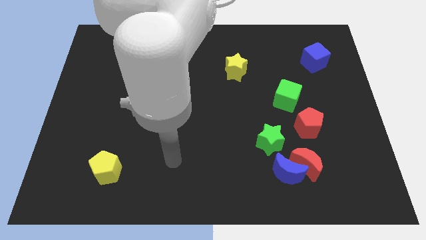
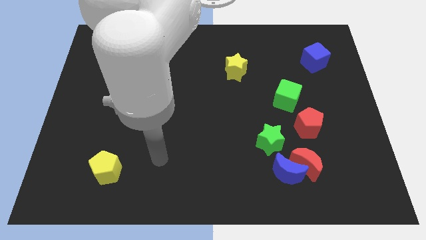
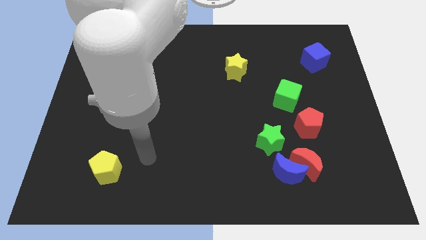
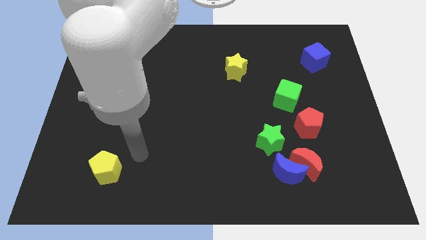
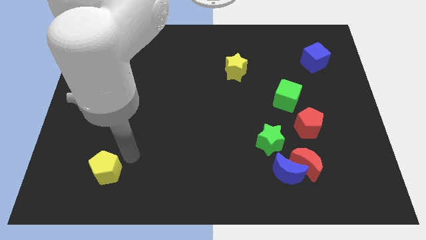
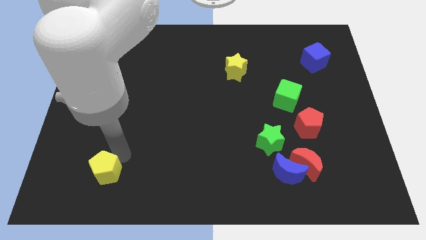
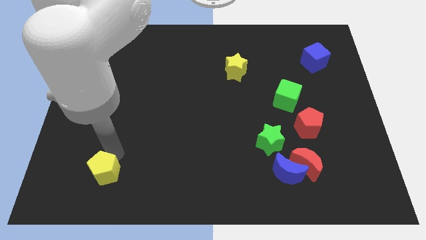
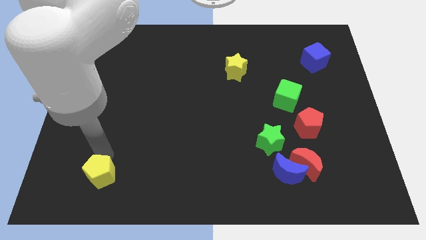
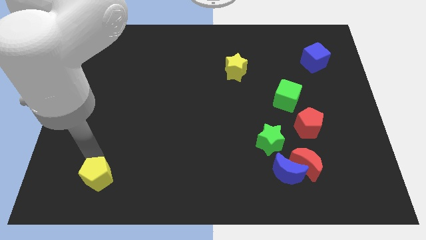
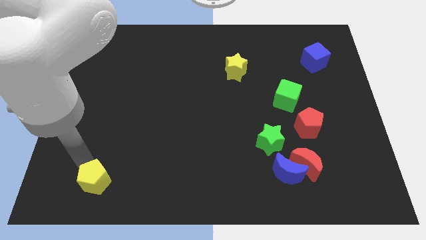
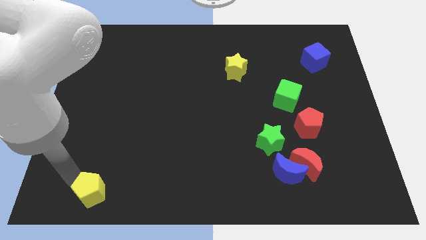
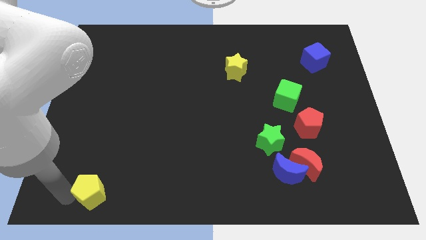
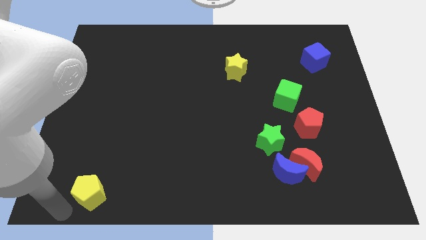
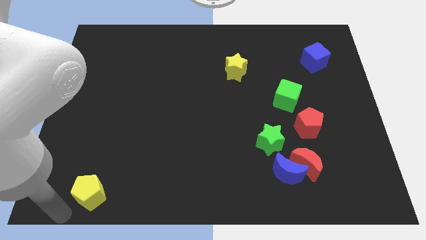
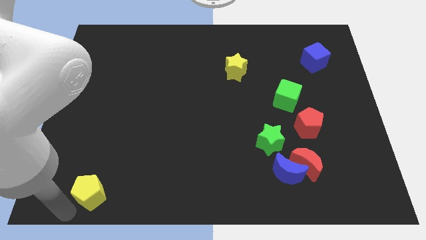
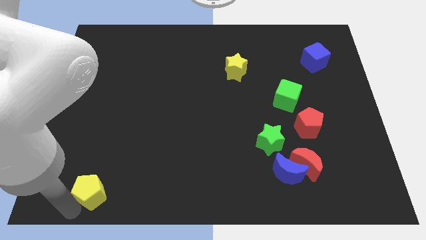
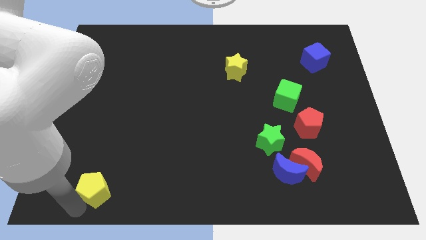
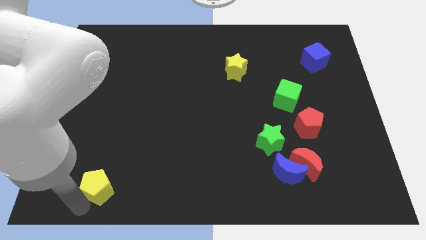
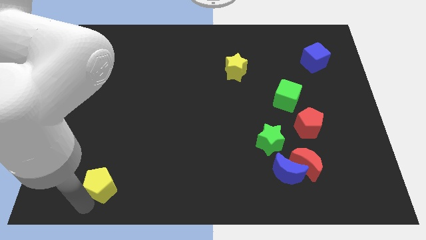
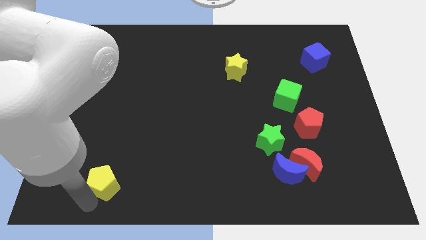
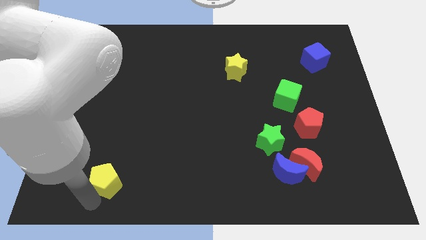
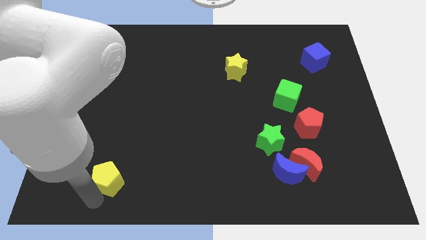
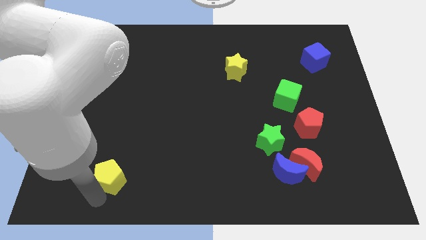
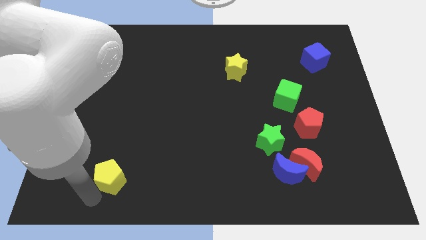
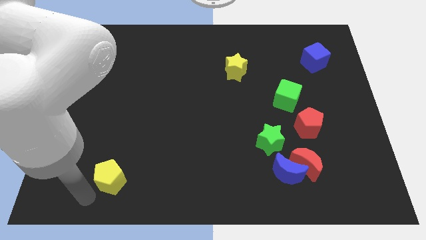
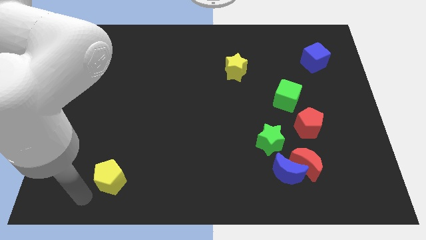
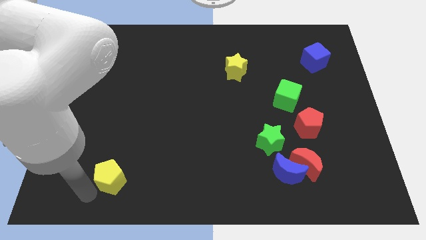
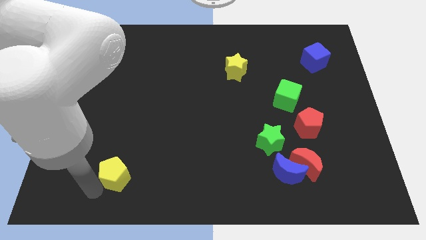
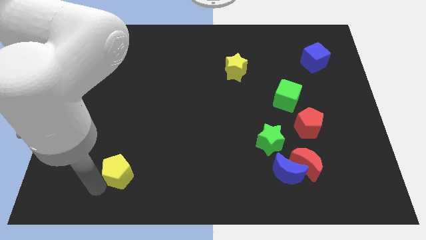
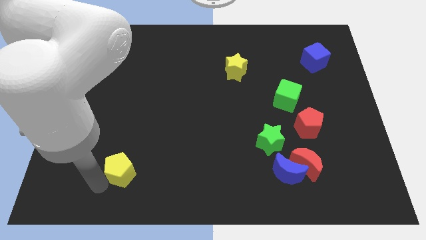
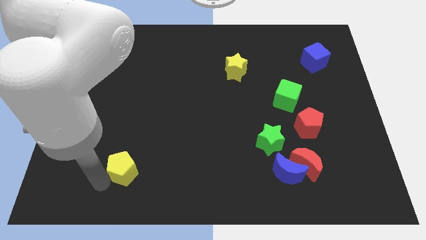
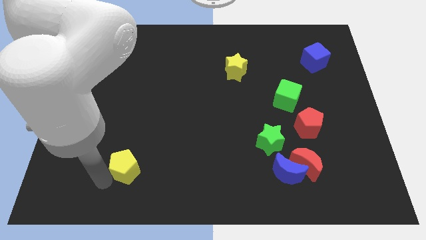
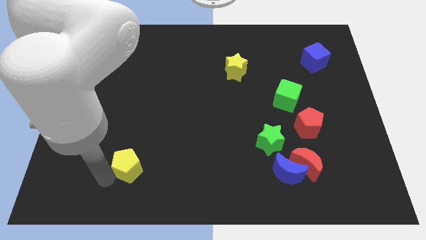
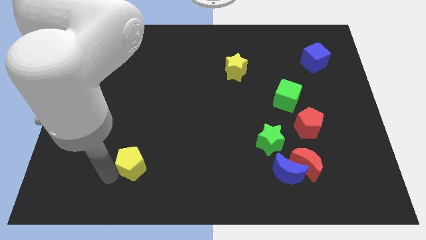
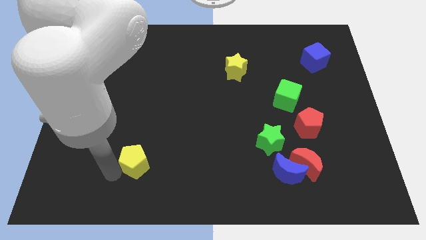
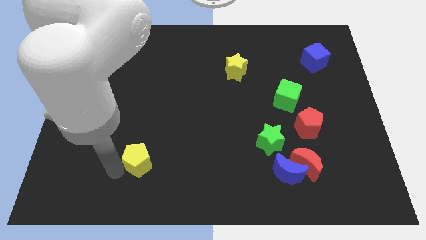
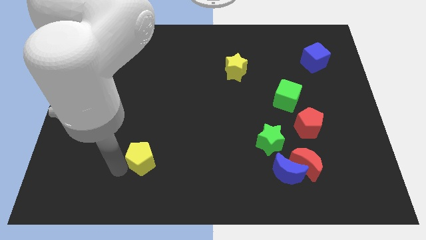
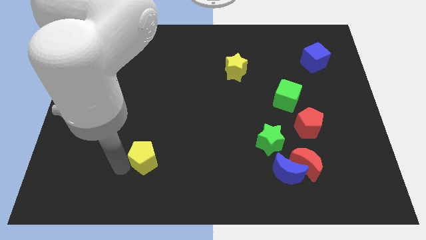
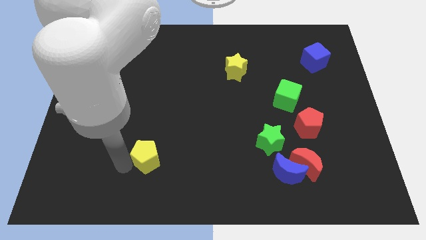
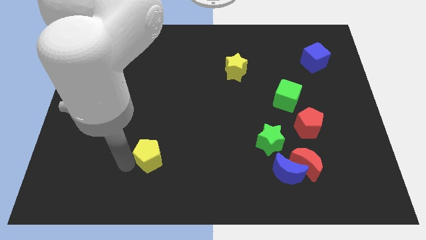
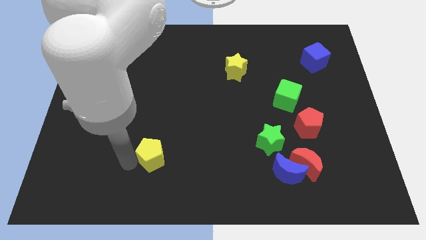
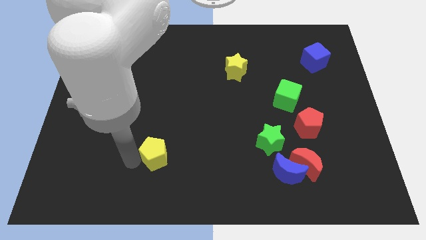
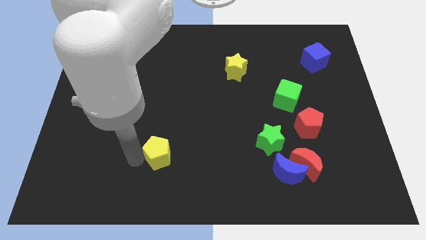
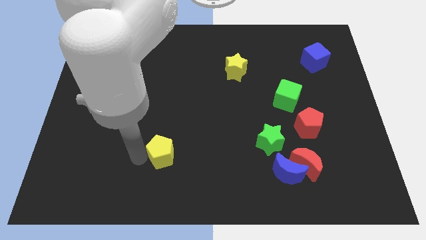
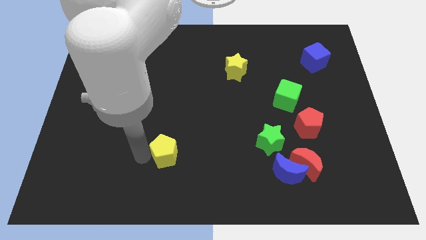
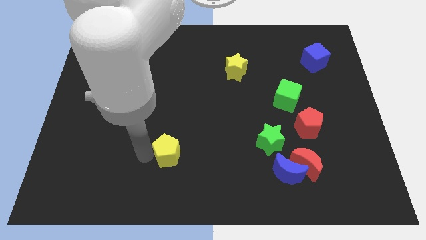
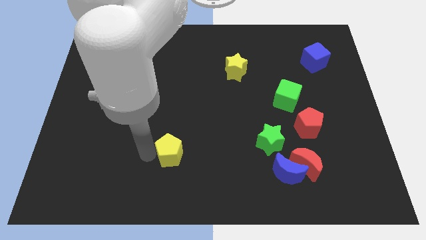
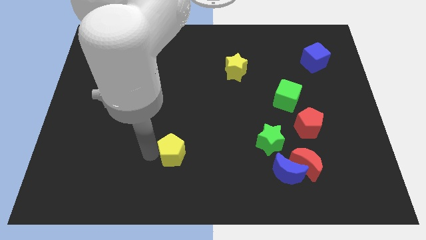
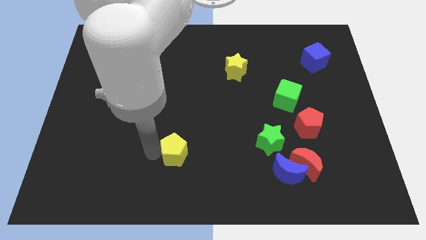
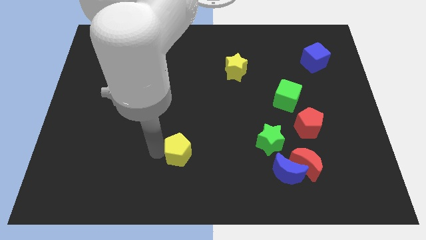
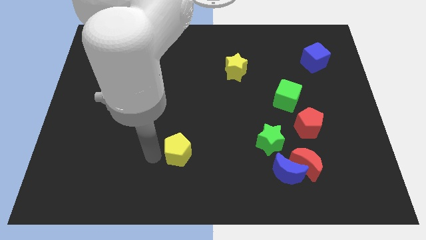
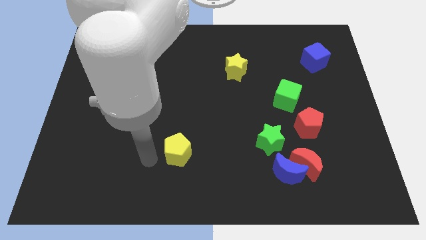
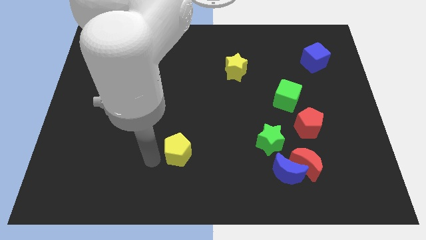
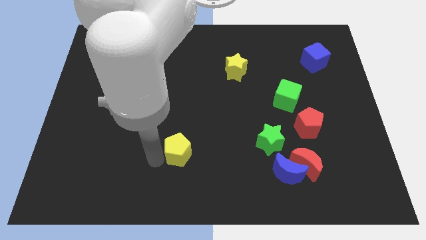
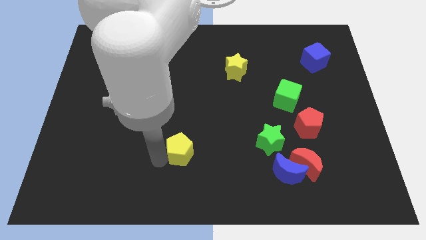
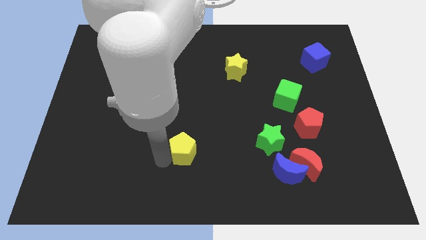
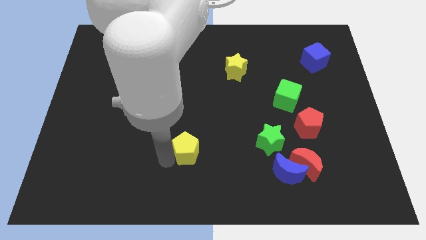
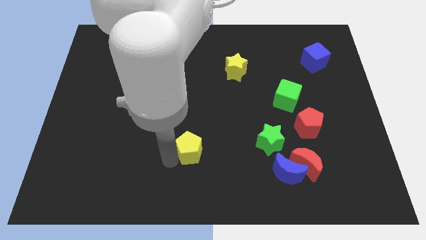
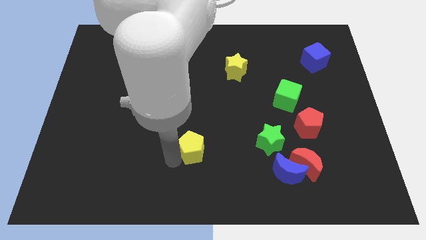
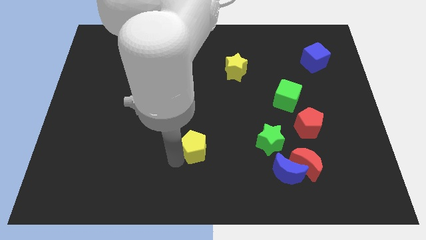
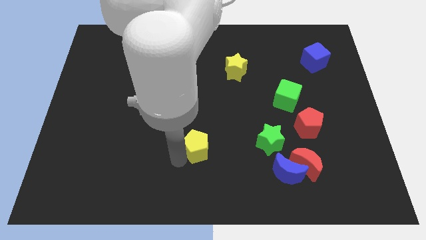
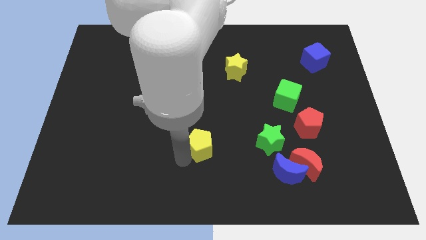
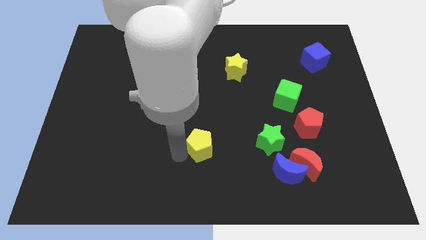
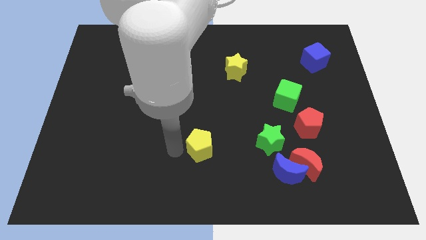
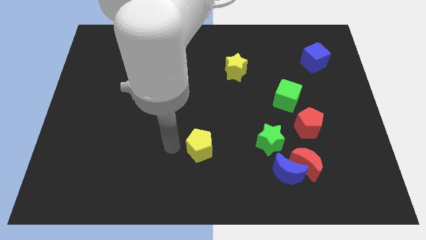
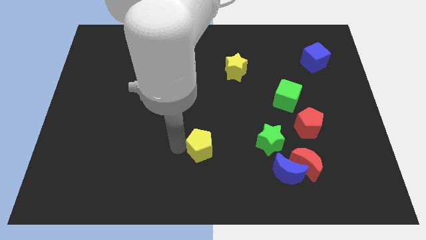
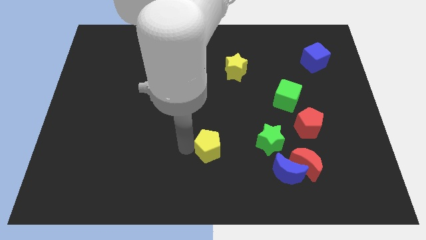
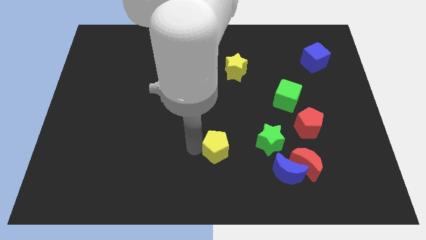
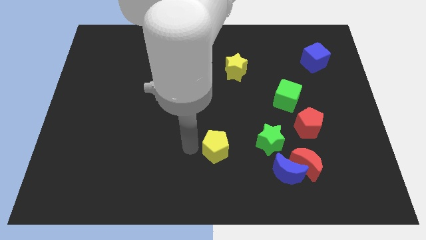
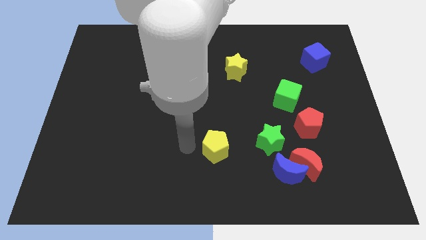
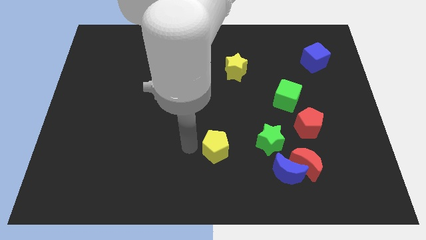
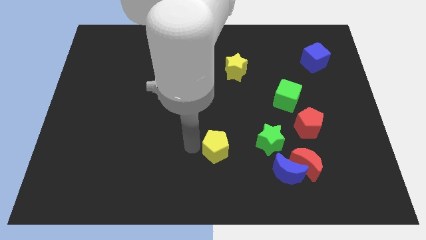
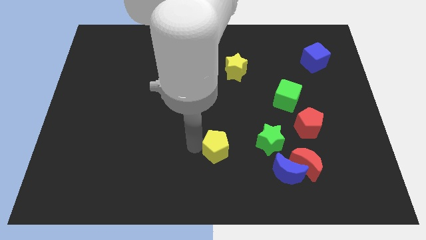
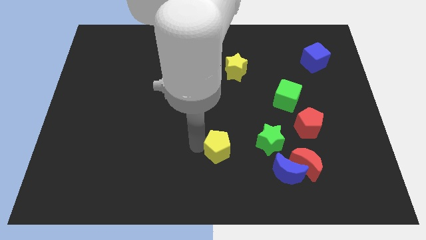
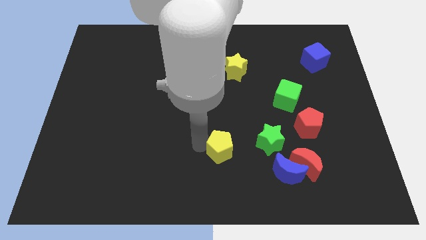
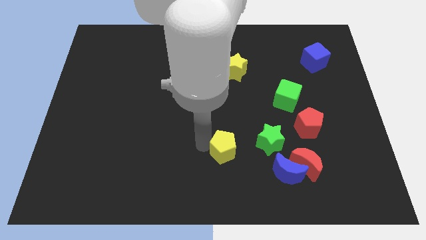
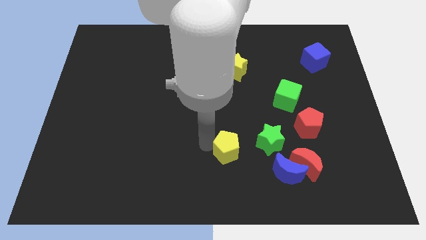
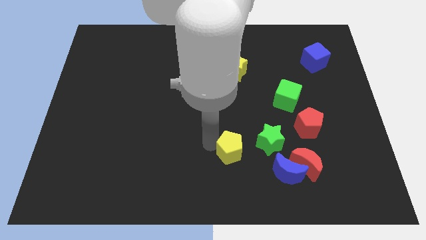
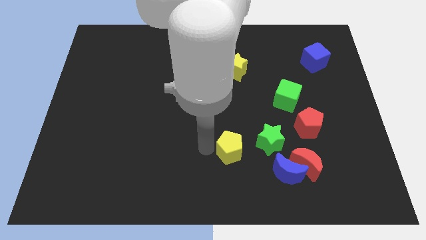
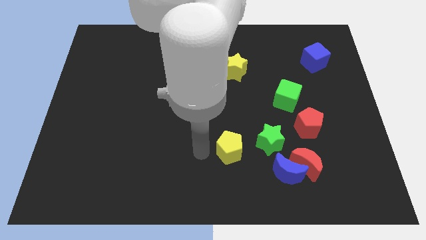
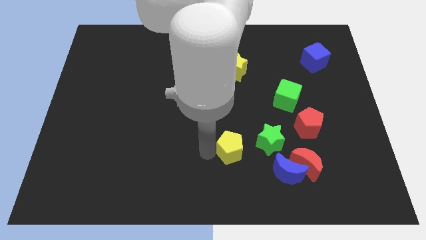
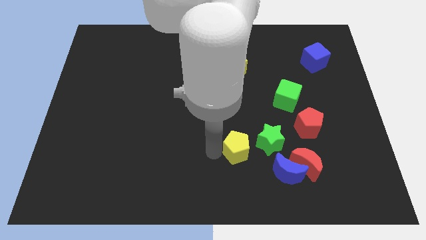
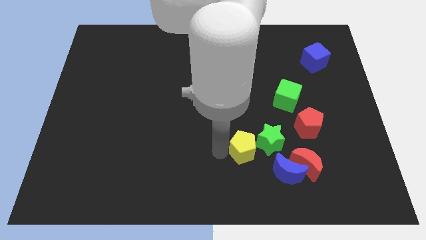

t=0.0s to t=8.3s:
slide the yellow pentagon towards the green star
